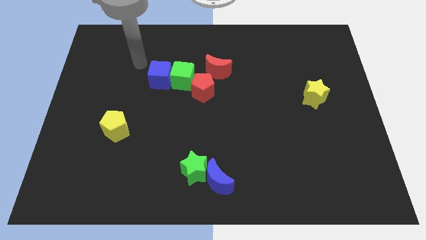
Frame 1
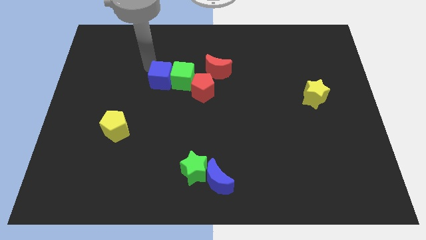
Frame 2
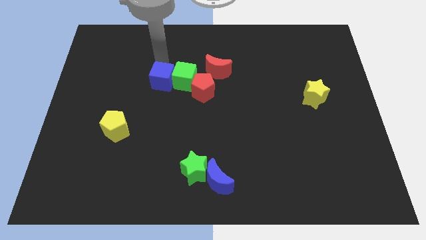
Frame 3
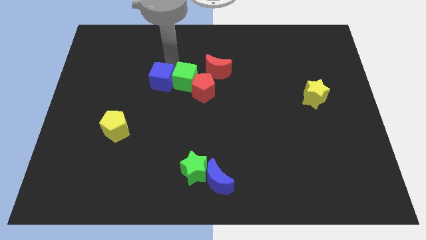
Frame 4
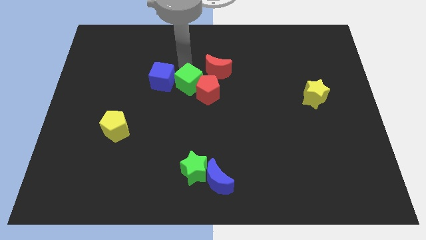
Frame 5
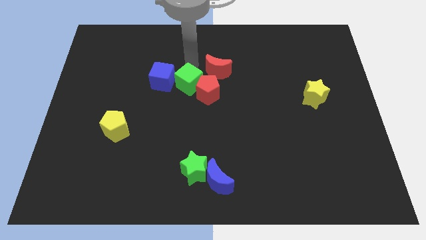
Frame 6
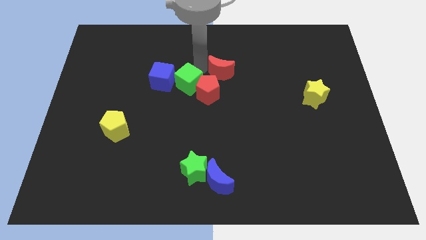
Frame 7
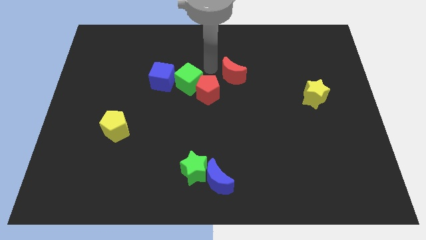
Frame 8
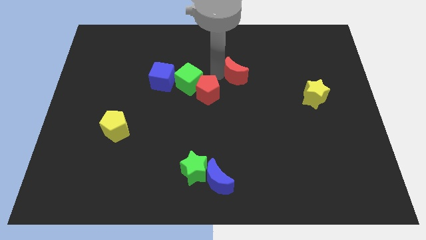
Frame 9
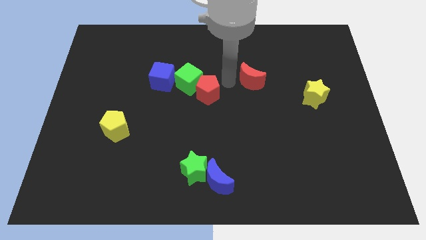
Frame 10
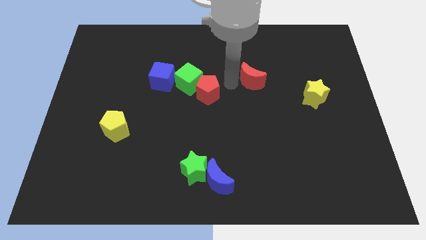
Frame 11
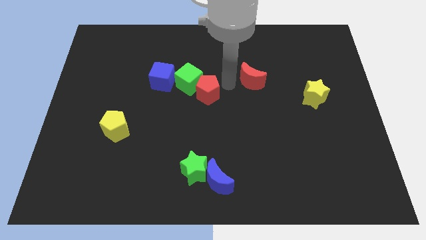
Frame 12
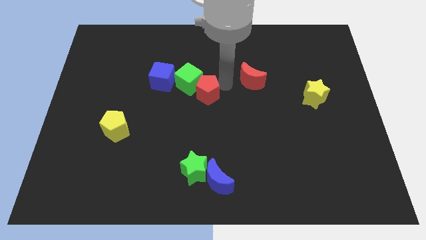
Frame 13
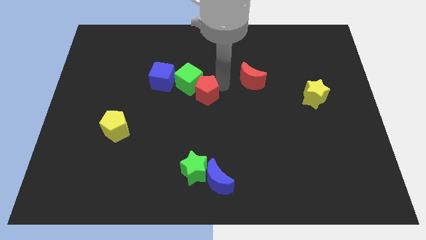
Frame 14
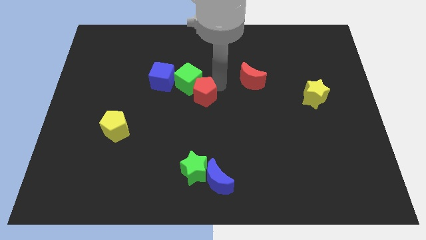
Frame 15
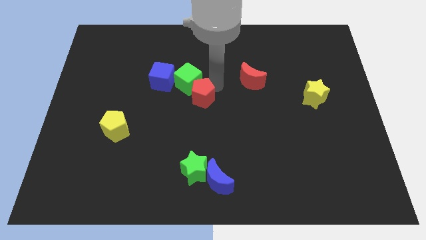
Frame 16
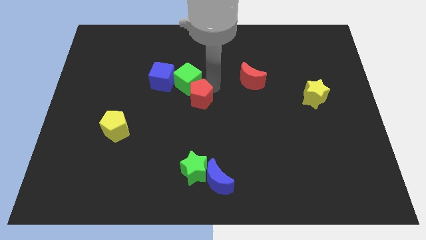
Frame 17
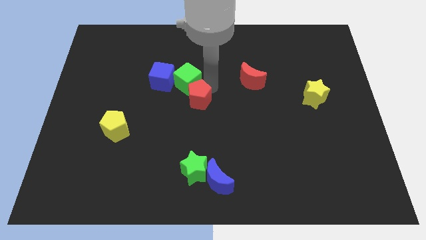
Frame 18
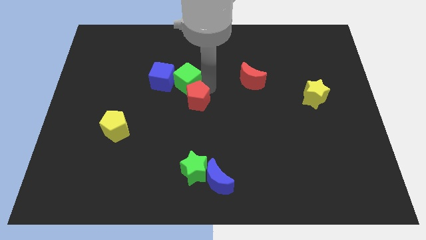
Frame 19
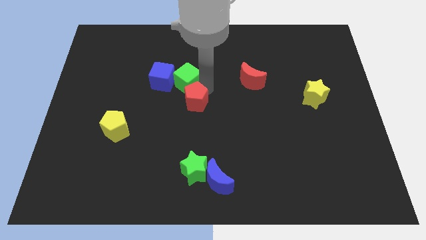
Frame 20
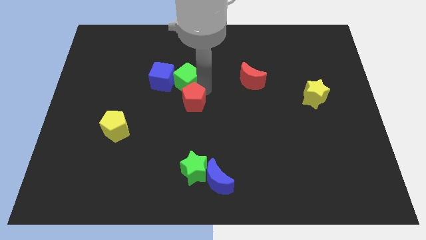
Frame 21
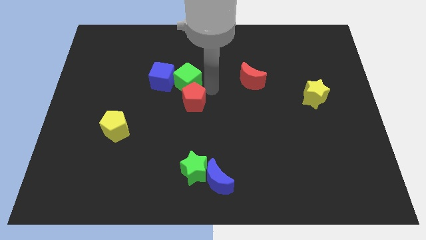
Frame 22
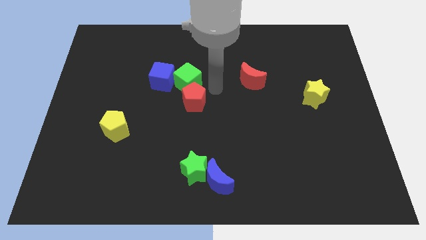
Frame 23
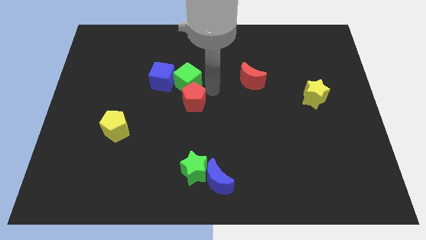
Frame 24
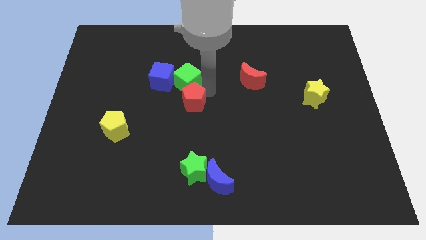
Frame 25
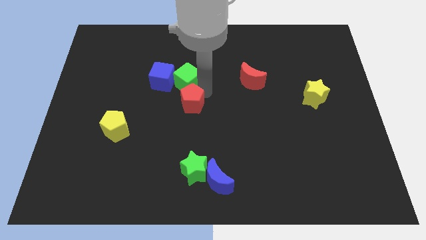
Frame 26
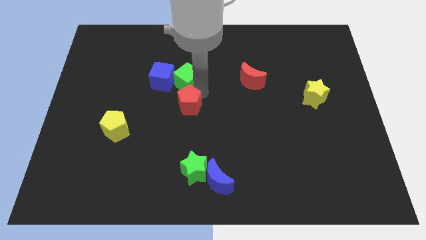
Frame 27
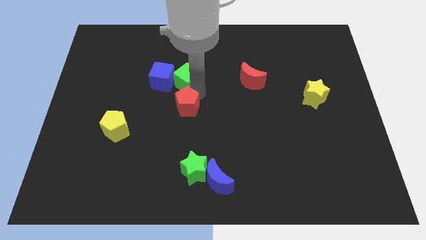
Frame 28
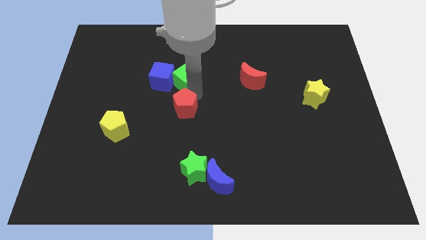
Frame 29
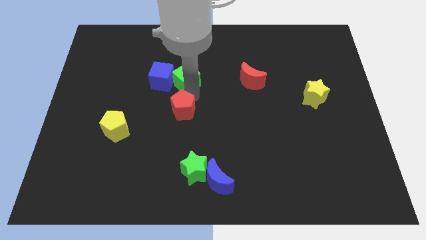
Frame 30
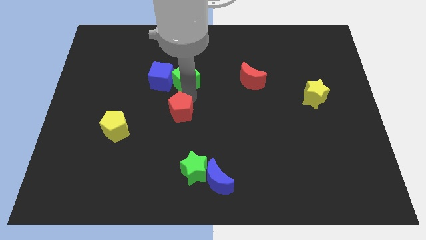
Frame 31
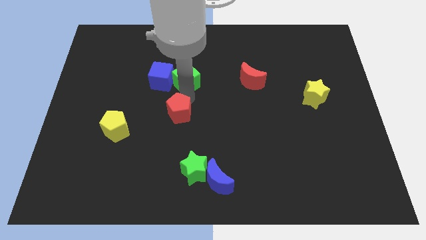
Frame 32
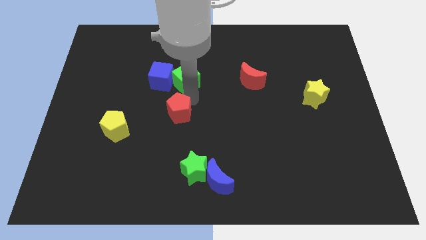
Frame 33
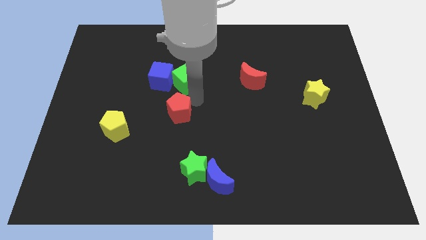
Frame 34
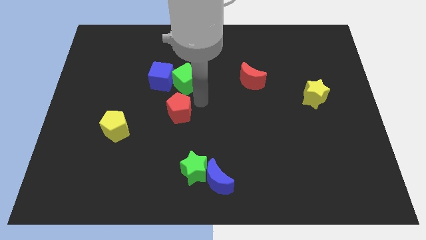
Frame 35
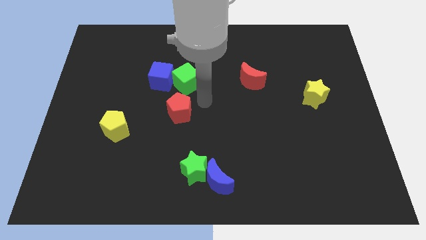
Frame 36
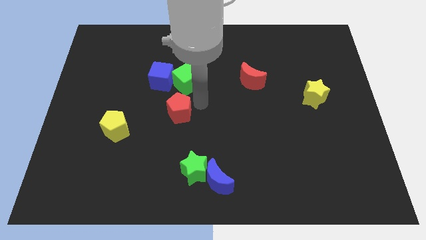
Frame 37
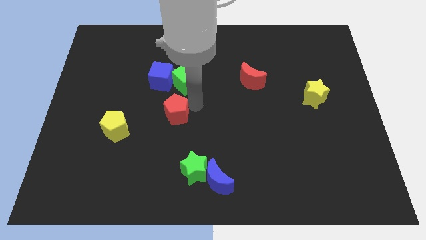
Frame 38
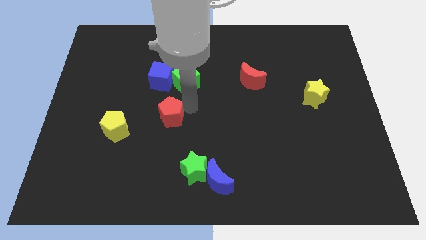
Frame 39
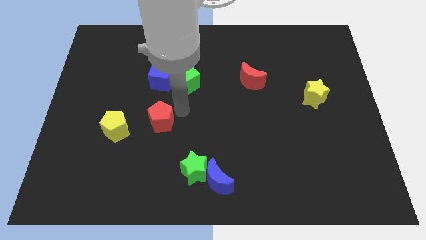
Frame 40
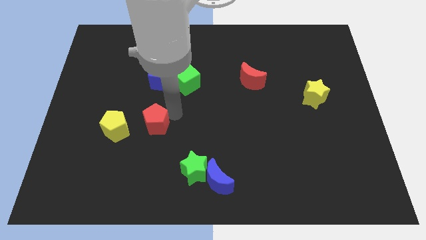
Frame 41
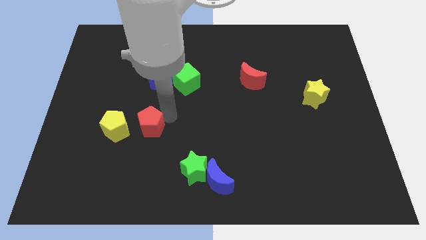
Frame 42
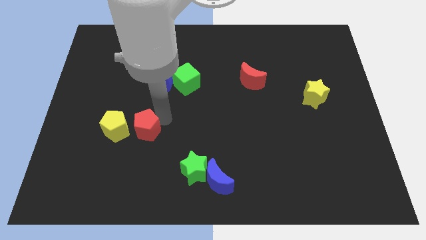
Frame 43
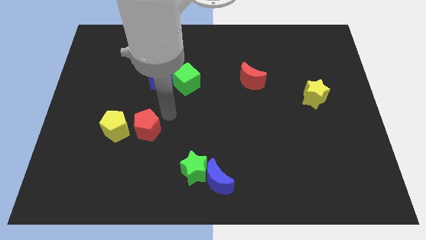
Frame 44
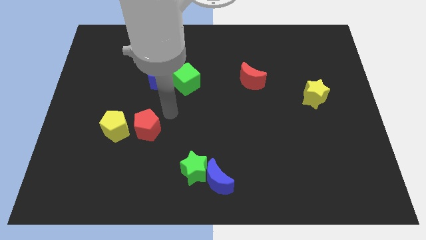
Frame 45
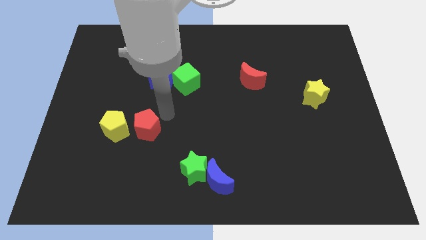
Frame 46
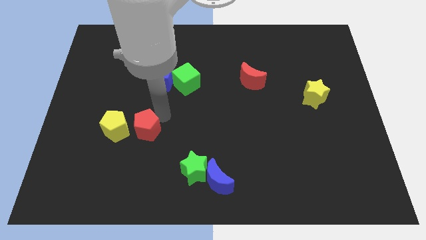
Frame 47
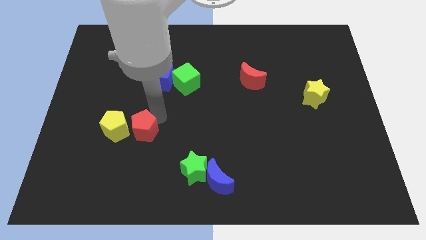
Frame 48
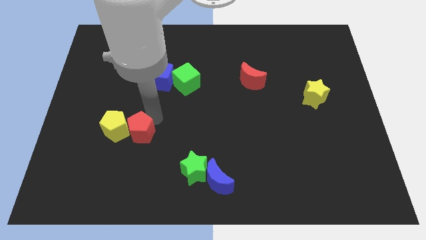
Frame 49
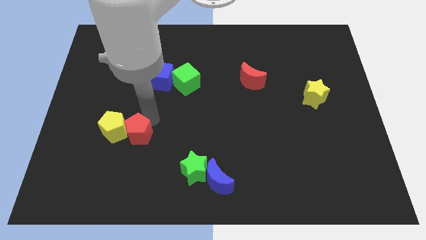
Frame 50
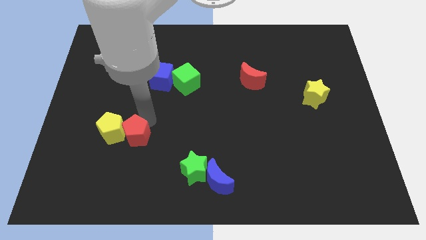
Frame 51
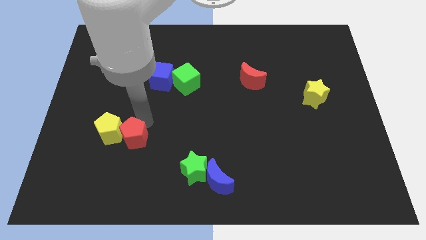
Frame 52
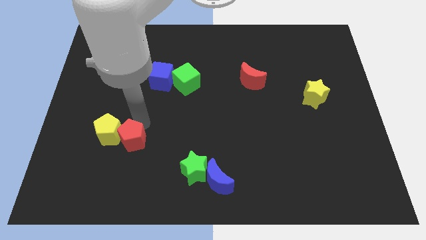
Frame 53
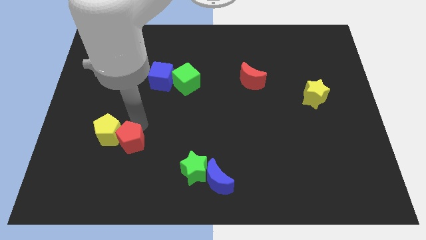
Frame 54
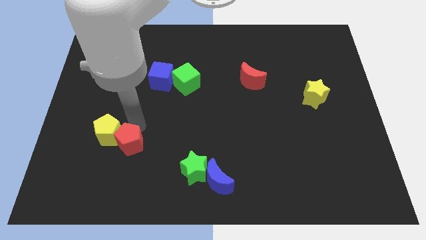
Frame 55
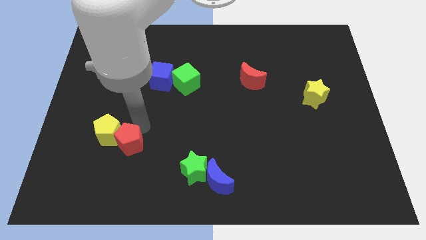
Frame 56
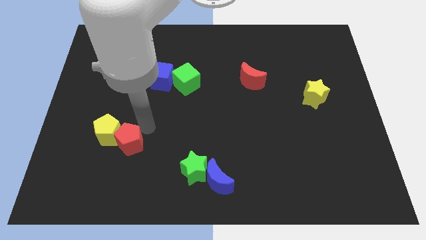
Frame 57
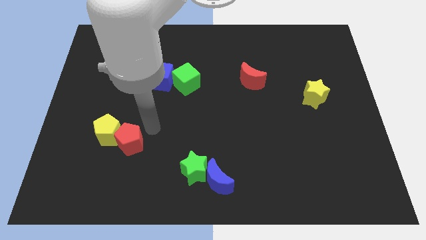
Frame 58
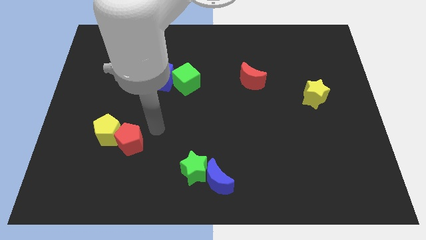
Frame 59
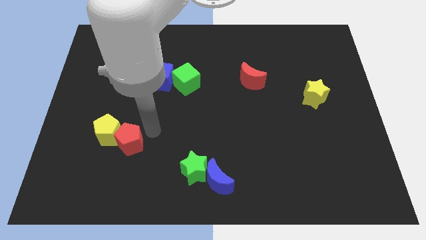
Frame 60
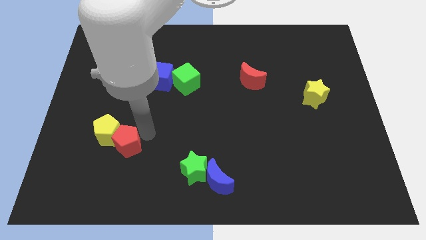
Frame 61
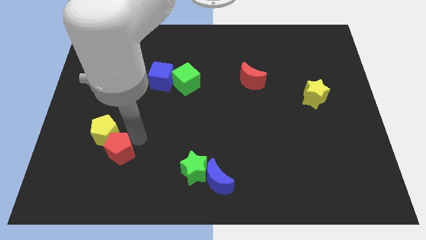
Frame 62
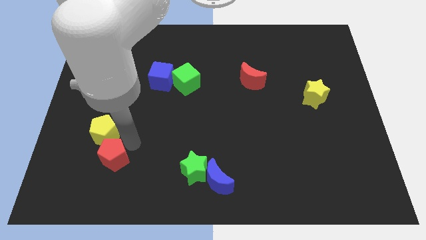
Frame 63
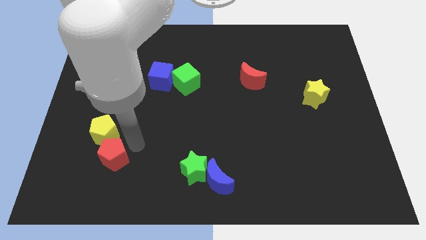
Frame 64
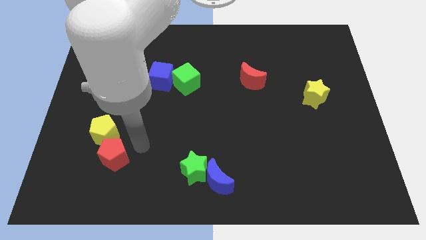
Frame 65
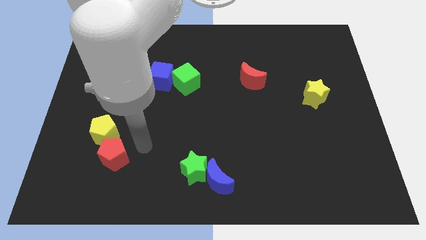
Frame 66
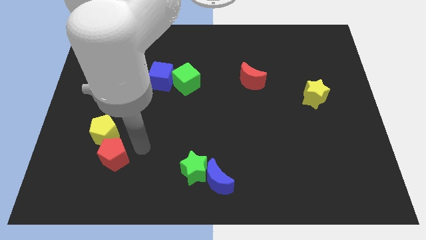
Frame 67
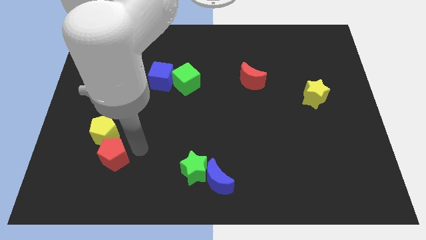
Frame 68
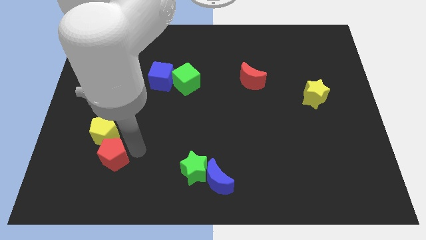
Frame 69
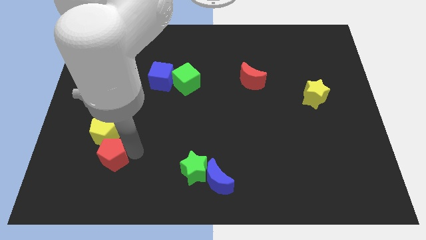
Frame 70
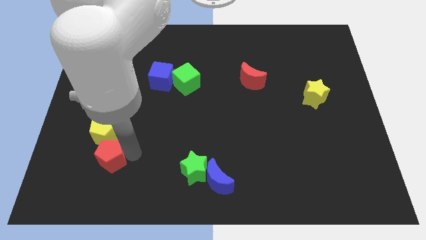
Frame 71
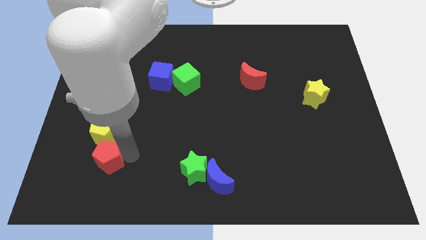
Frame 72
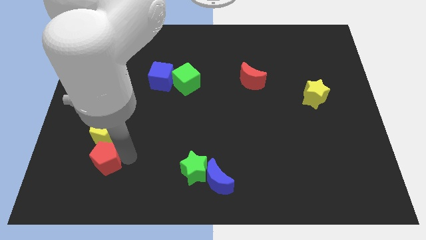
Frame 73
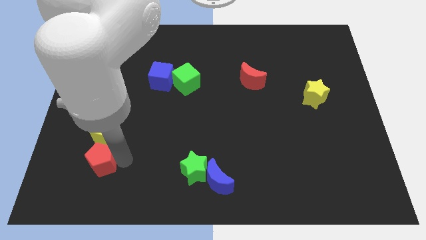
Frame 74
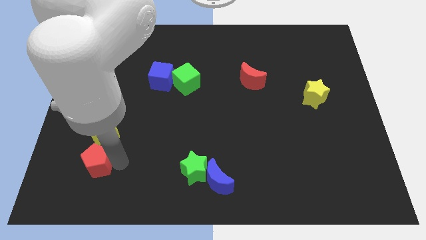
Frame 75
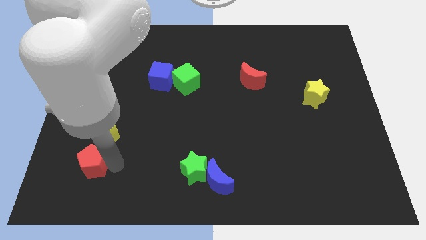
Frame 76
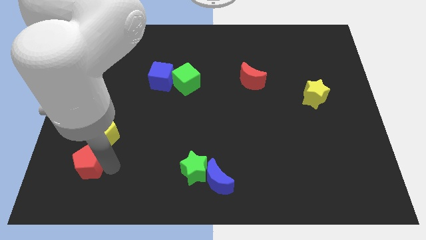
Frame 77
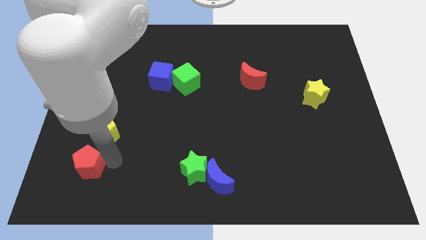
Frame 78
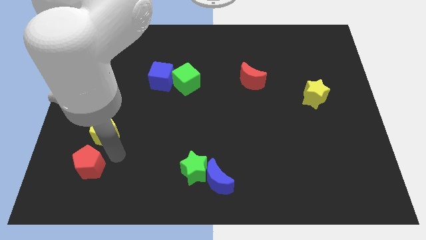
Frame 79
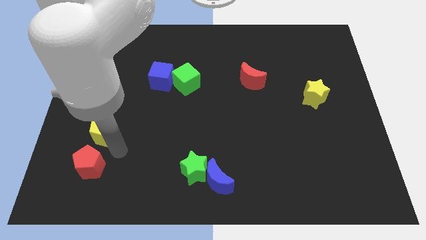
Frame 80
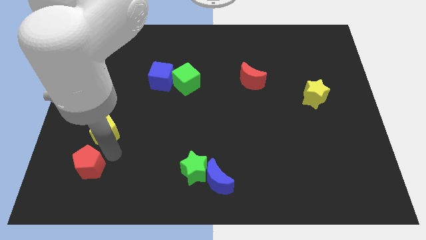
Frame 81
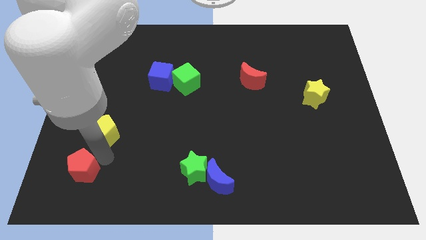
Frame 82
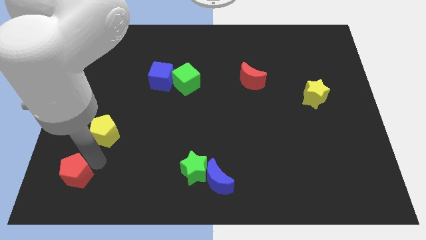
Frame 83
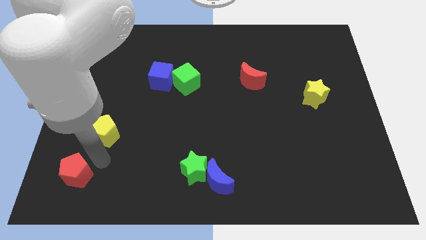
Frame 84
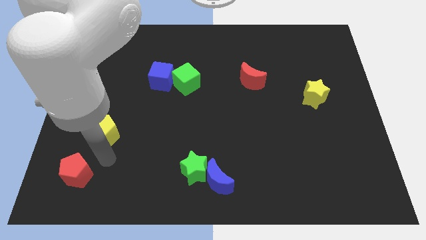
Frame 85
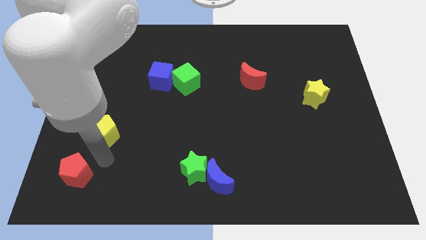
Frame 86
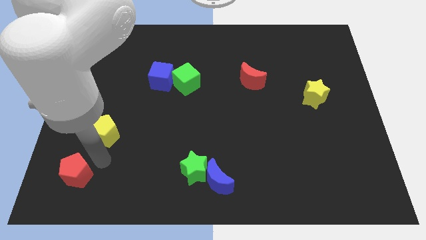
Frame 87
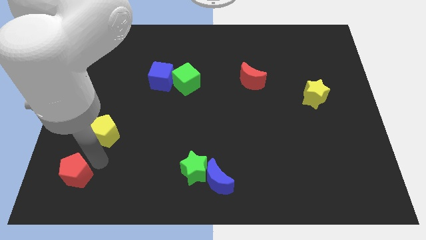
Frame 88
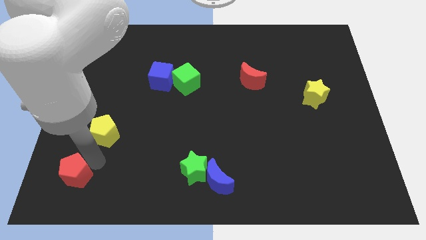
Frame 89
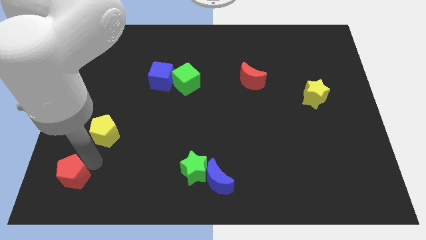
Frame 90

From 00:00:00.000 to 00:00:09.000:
put the red pentagon to the lower left corner
